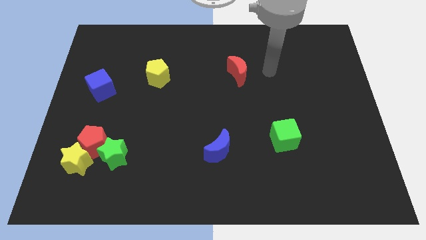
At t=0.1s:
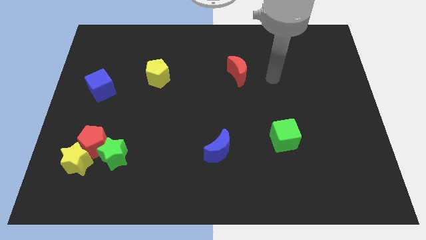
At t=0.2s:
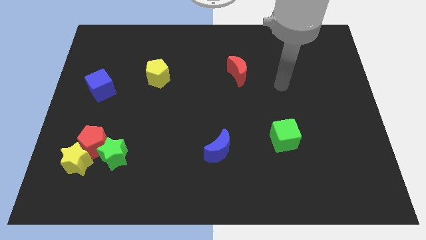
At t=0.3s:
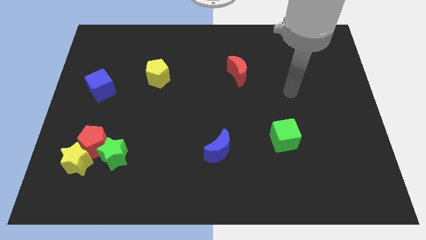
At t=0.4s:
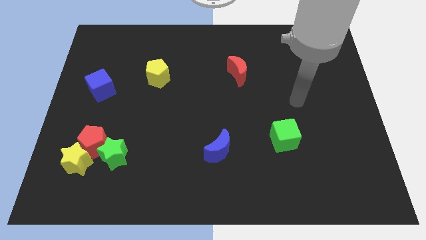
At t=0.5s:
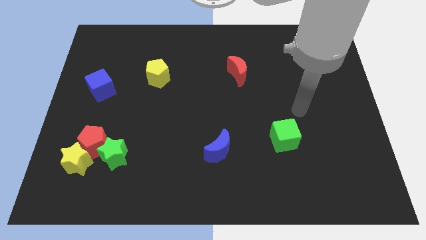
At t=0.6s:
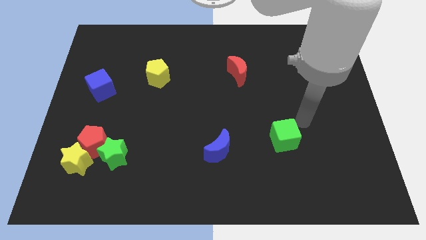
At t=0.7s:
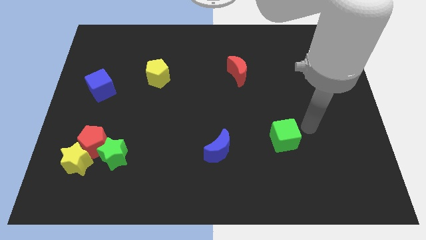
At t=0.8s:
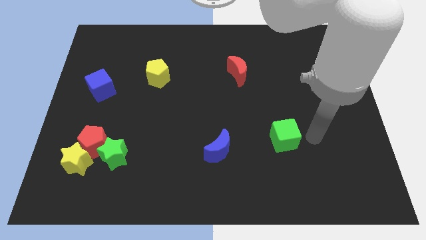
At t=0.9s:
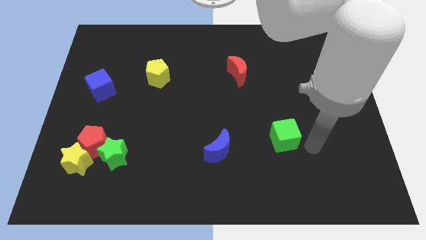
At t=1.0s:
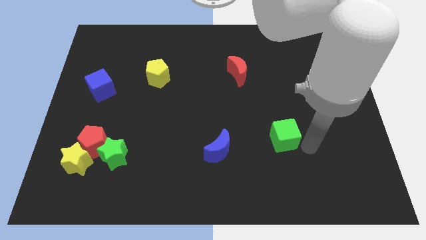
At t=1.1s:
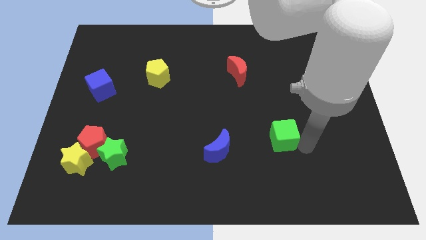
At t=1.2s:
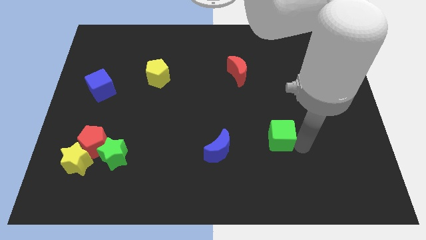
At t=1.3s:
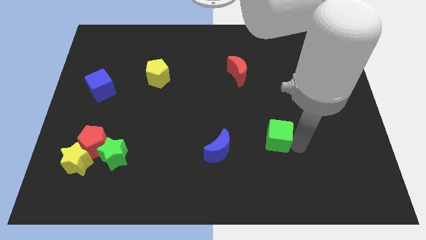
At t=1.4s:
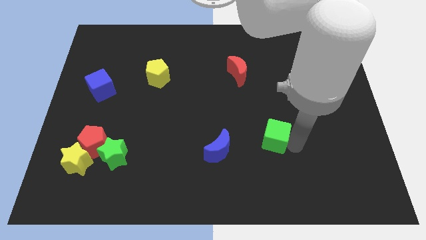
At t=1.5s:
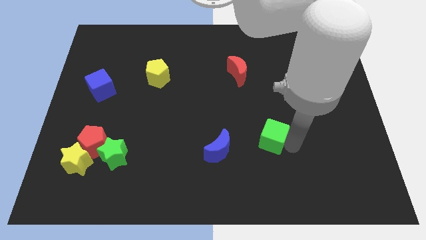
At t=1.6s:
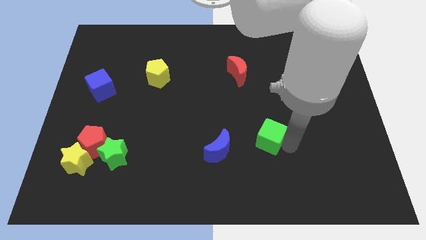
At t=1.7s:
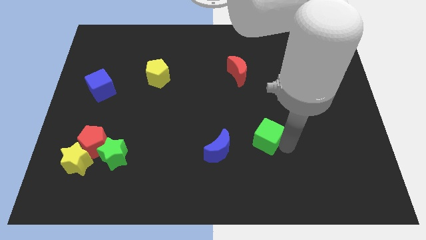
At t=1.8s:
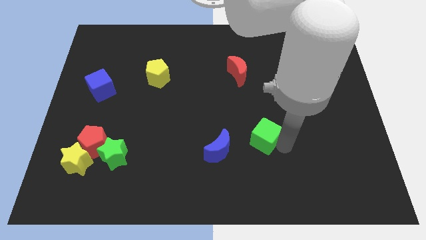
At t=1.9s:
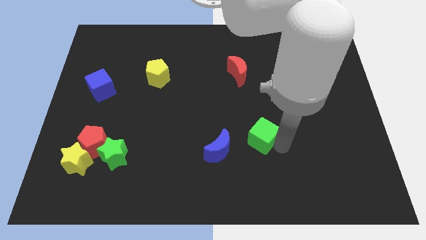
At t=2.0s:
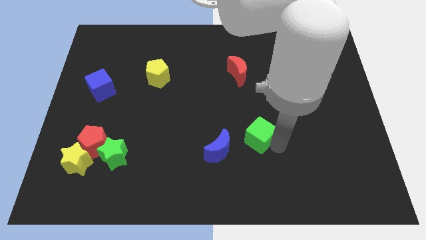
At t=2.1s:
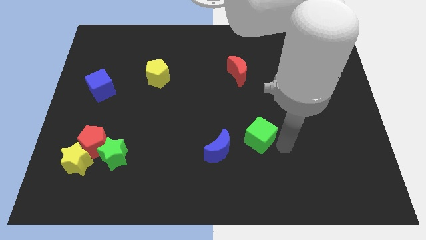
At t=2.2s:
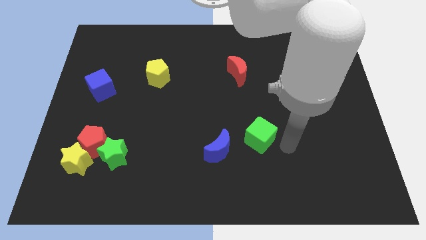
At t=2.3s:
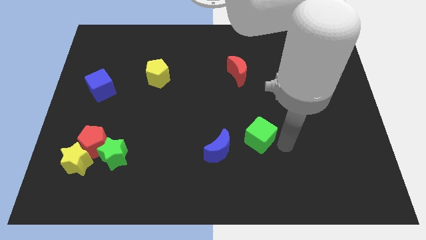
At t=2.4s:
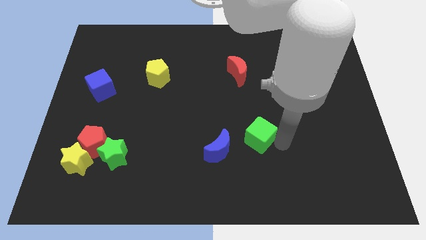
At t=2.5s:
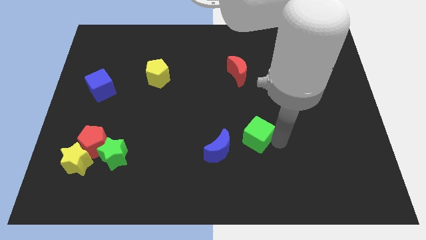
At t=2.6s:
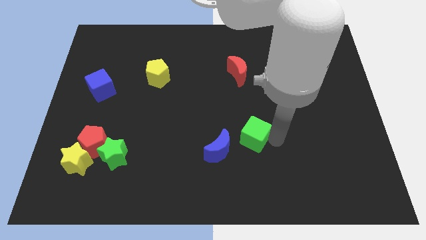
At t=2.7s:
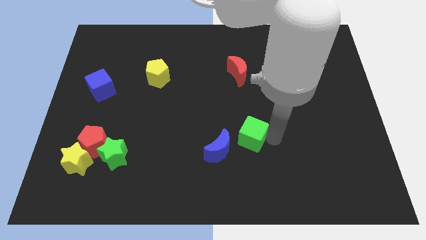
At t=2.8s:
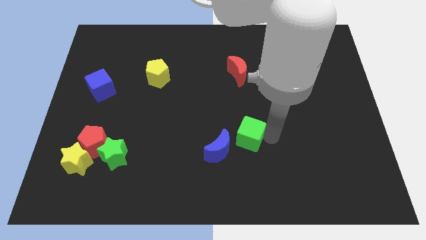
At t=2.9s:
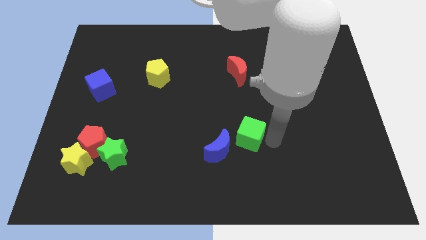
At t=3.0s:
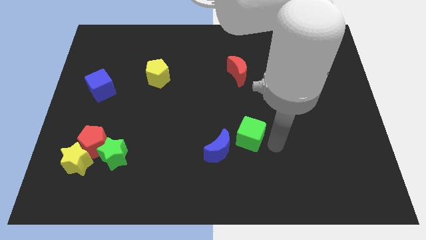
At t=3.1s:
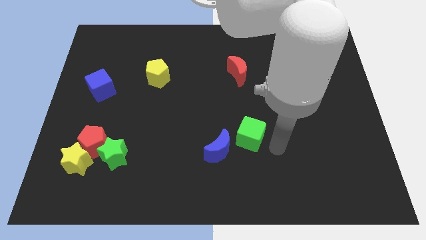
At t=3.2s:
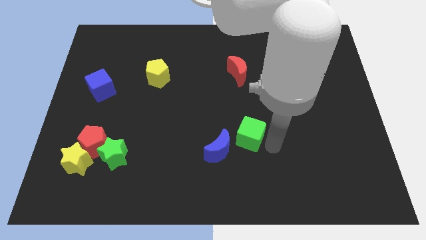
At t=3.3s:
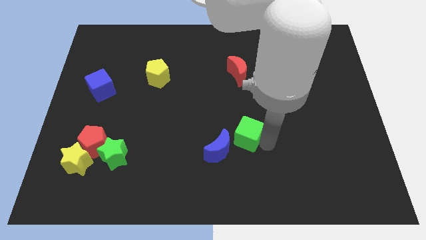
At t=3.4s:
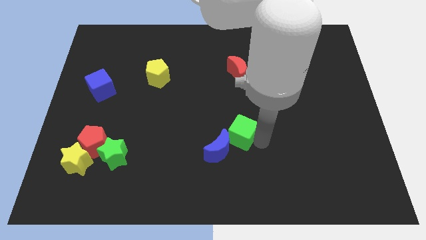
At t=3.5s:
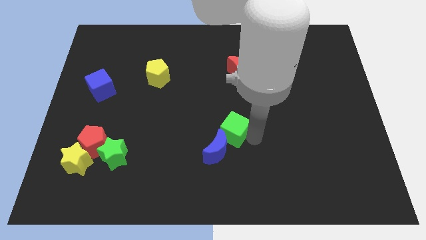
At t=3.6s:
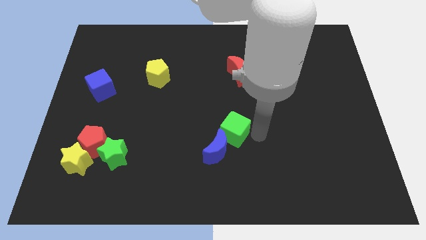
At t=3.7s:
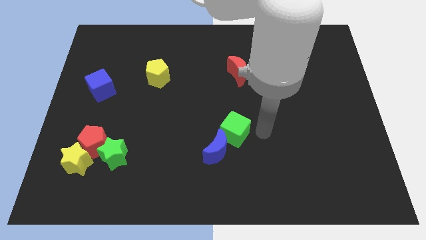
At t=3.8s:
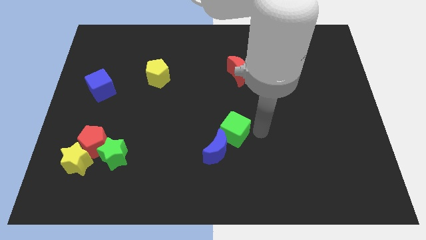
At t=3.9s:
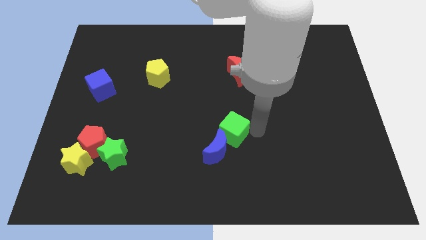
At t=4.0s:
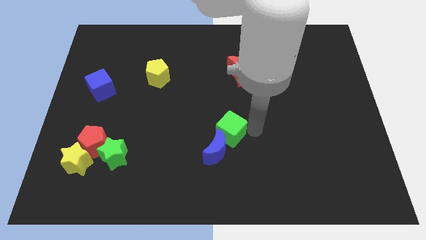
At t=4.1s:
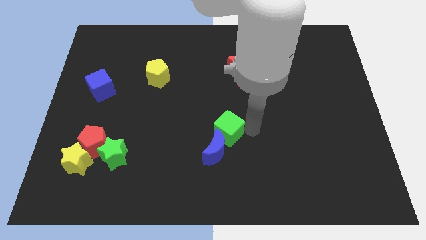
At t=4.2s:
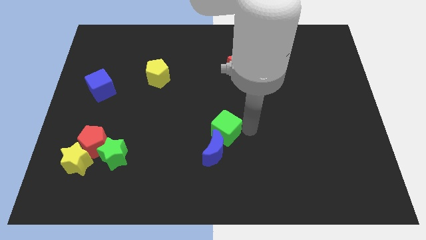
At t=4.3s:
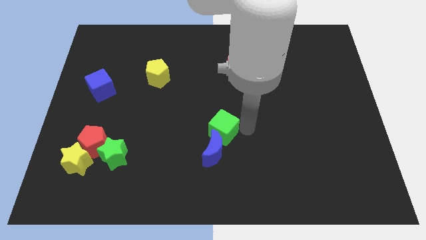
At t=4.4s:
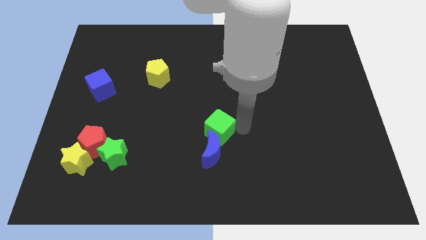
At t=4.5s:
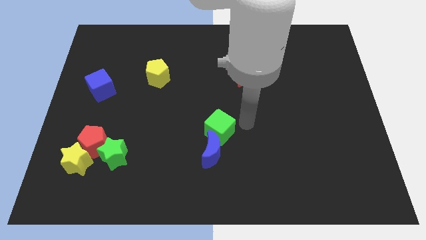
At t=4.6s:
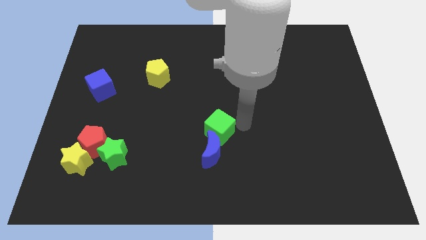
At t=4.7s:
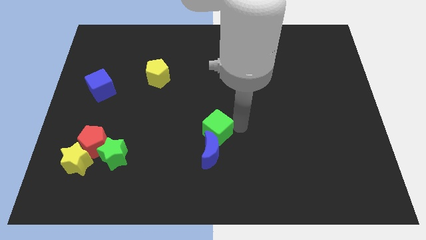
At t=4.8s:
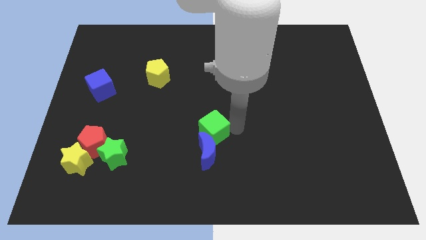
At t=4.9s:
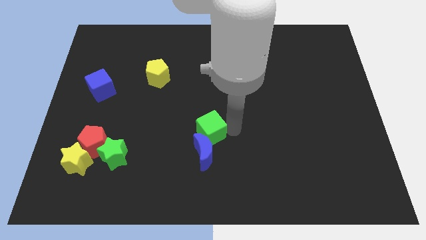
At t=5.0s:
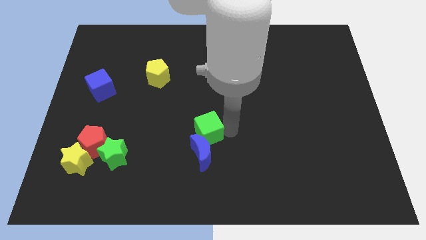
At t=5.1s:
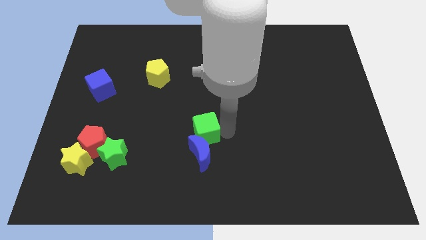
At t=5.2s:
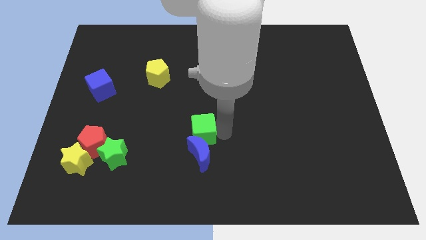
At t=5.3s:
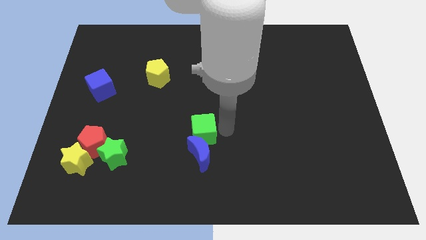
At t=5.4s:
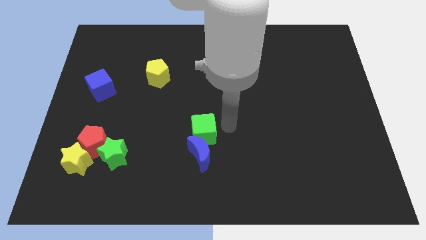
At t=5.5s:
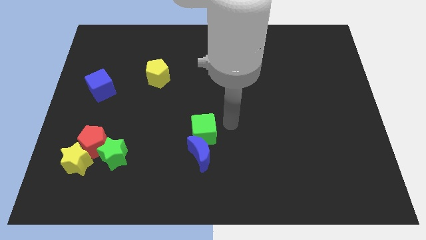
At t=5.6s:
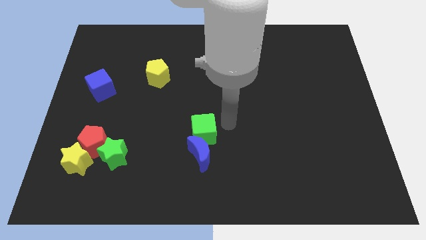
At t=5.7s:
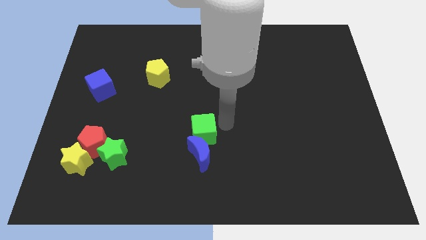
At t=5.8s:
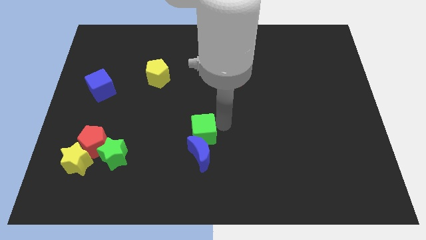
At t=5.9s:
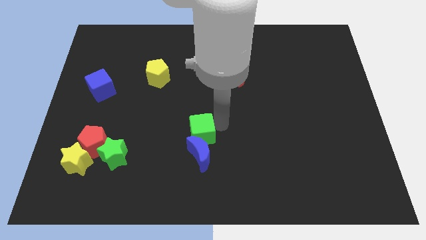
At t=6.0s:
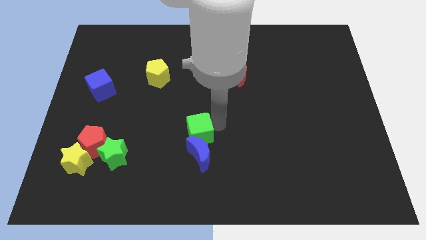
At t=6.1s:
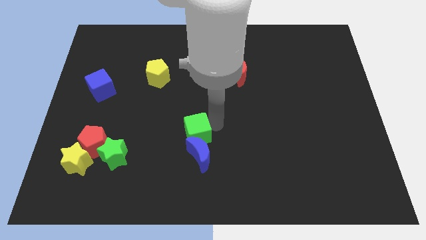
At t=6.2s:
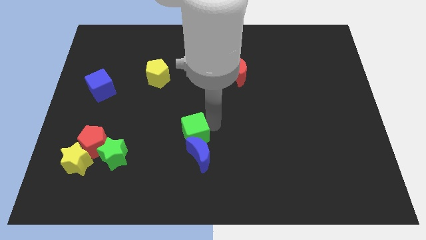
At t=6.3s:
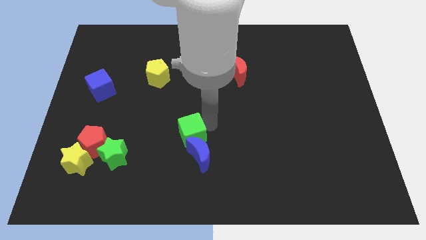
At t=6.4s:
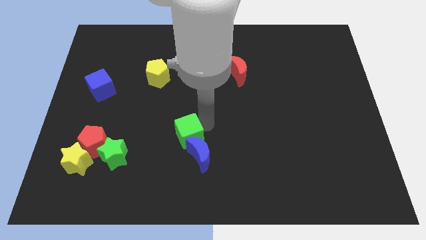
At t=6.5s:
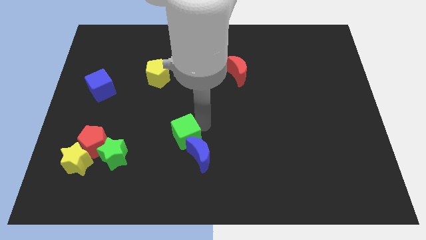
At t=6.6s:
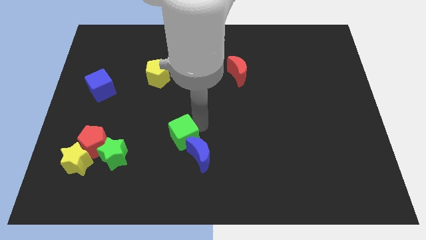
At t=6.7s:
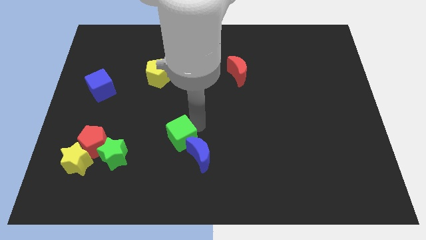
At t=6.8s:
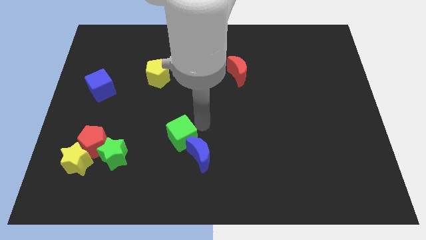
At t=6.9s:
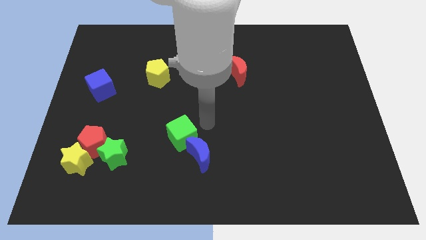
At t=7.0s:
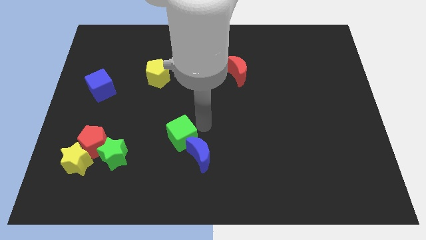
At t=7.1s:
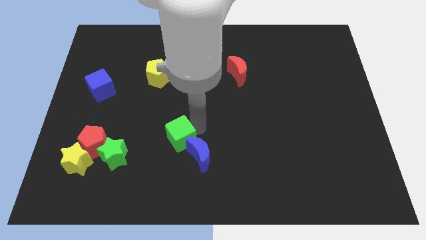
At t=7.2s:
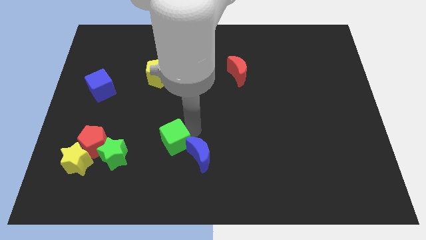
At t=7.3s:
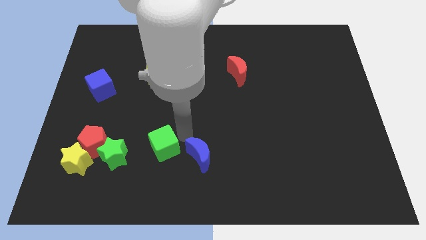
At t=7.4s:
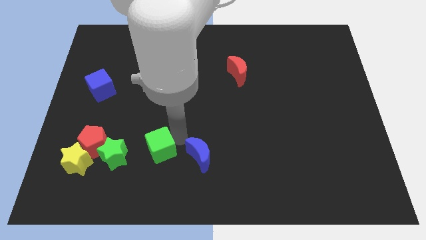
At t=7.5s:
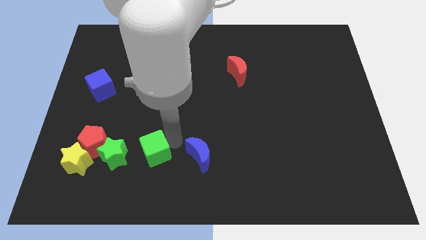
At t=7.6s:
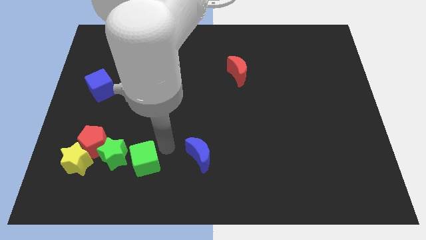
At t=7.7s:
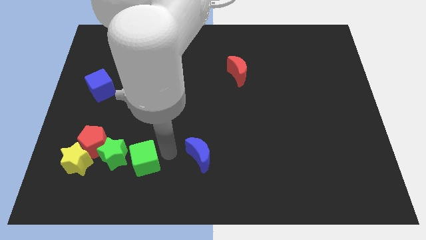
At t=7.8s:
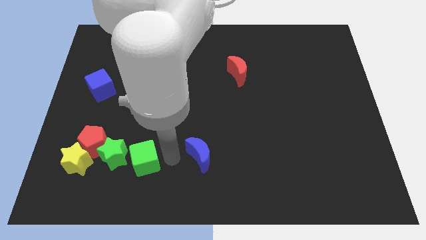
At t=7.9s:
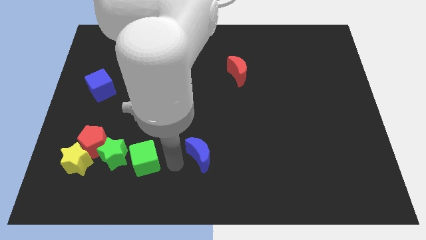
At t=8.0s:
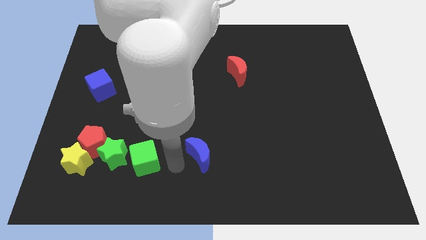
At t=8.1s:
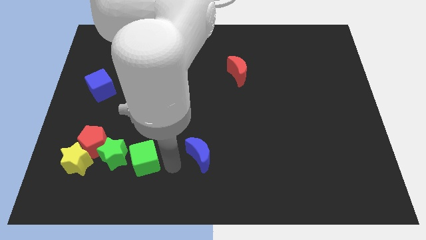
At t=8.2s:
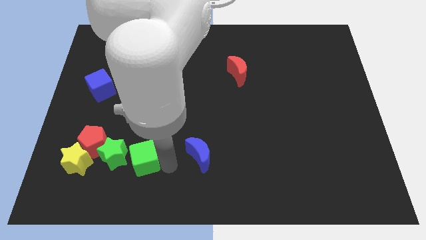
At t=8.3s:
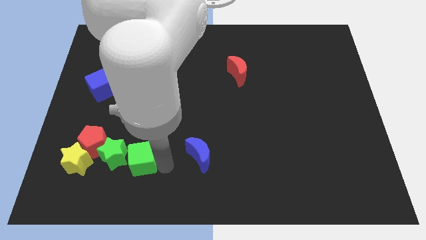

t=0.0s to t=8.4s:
move the green cube next to the green star
